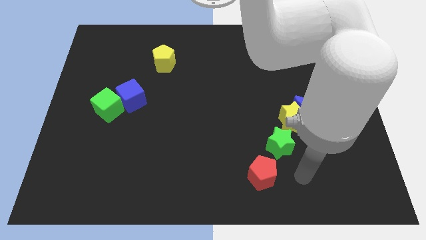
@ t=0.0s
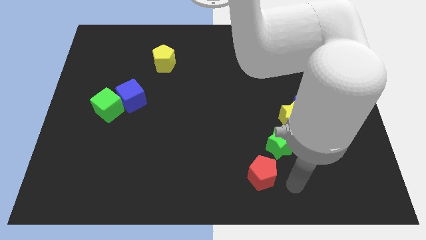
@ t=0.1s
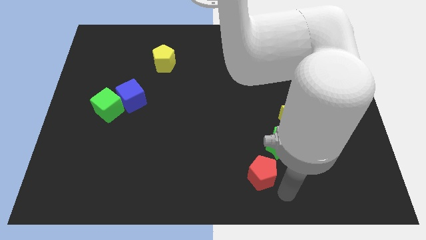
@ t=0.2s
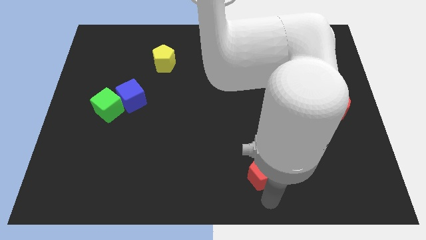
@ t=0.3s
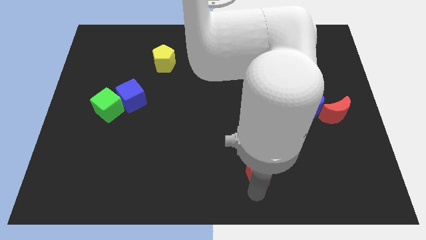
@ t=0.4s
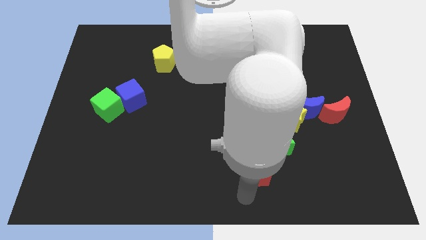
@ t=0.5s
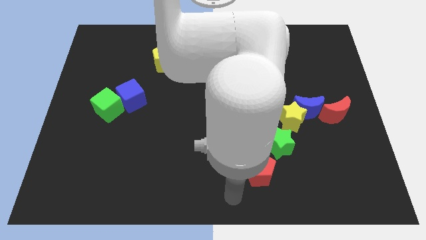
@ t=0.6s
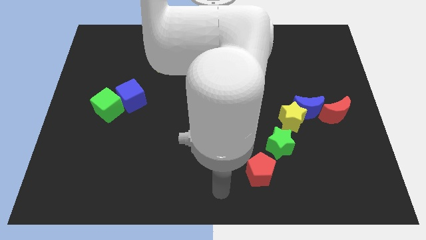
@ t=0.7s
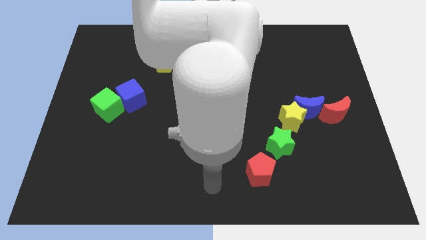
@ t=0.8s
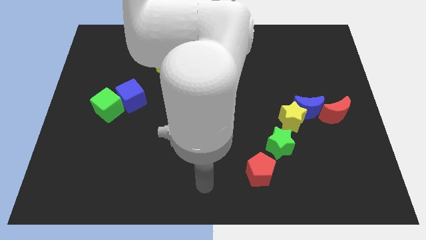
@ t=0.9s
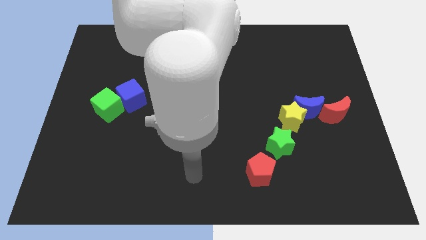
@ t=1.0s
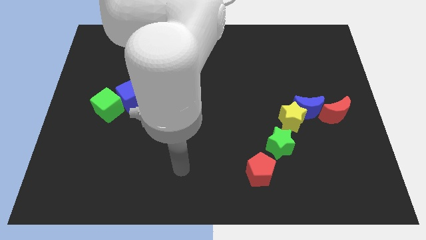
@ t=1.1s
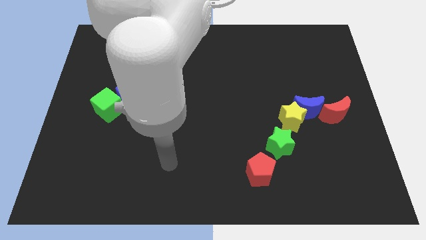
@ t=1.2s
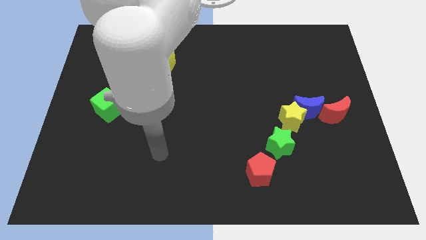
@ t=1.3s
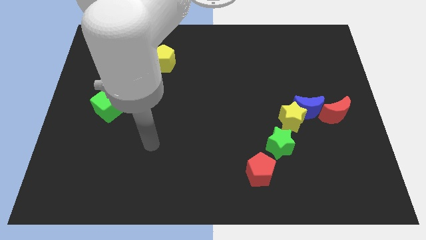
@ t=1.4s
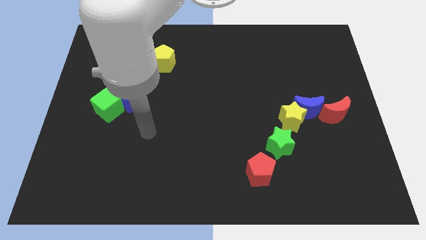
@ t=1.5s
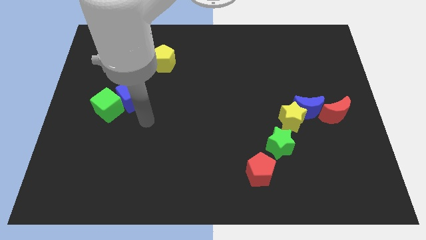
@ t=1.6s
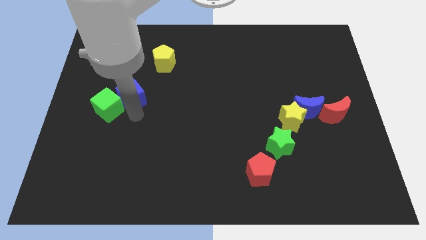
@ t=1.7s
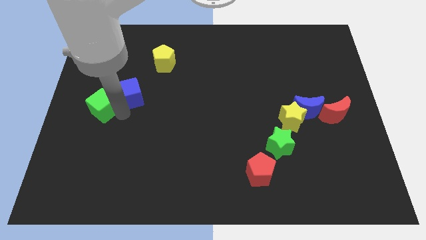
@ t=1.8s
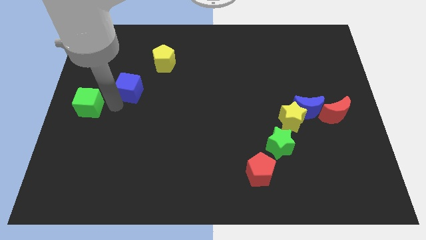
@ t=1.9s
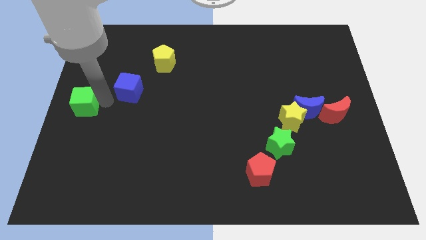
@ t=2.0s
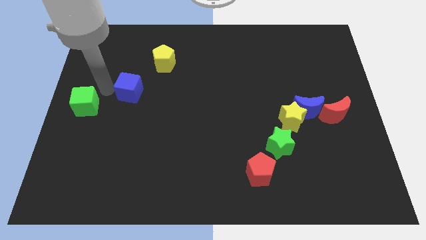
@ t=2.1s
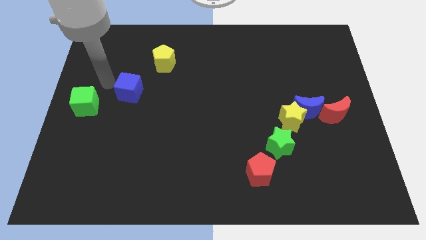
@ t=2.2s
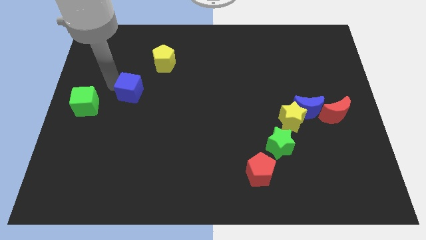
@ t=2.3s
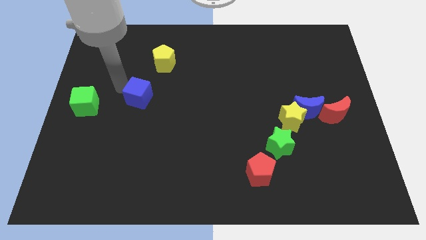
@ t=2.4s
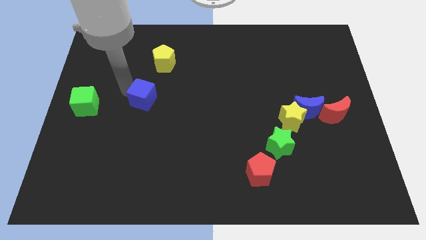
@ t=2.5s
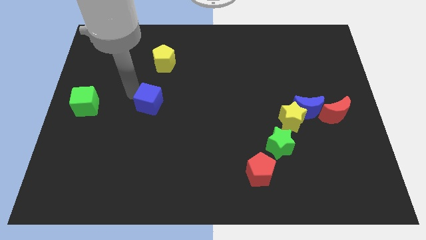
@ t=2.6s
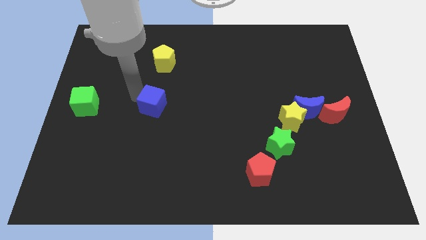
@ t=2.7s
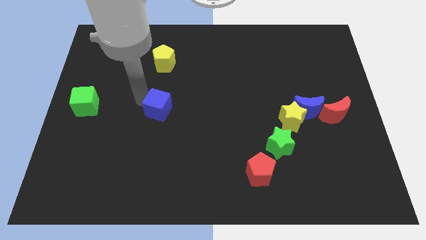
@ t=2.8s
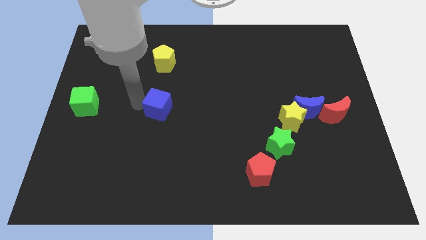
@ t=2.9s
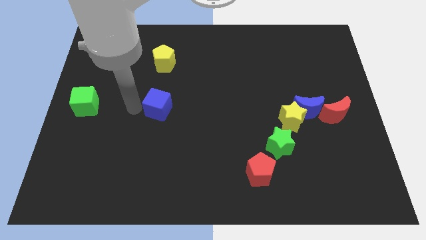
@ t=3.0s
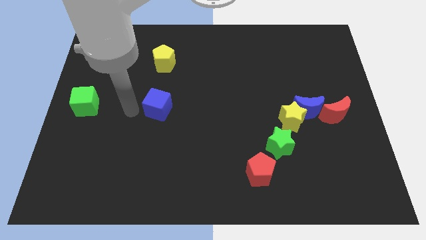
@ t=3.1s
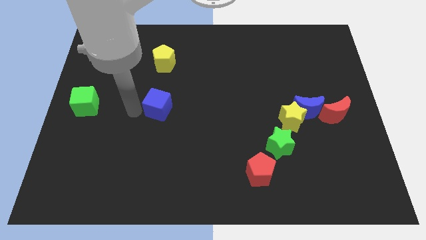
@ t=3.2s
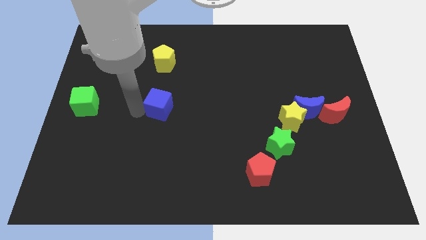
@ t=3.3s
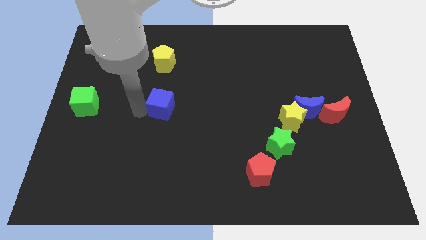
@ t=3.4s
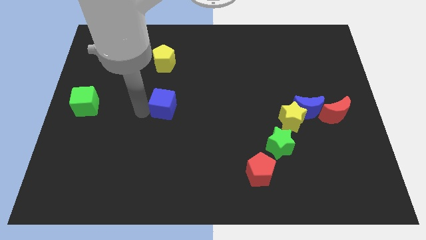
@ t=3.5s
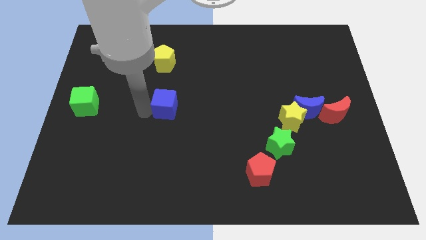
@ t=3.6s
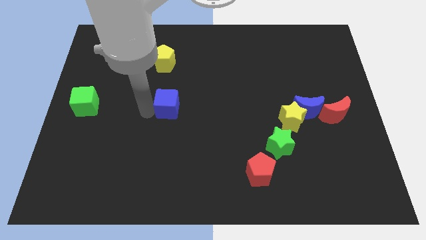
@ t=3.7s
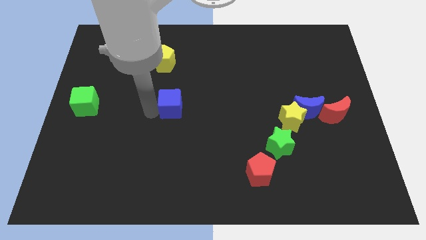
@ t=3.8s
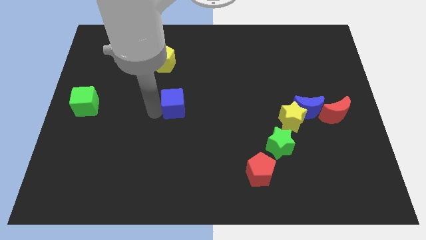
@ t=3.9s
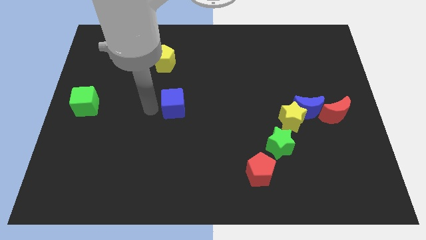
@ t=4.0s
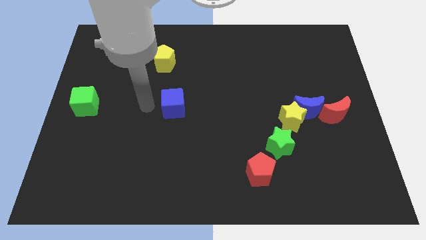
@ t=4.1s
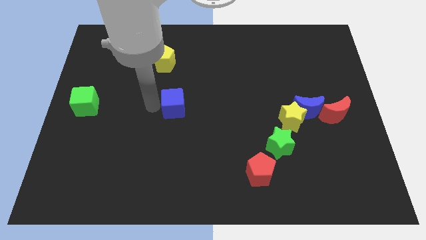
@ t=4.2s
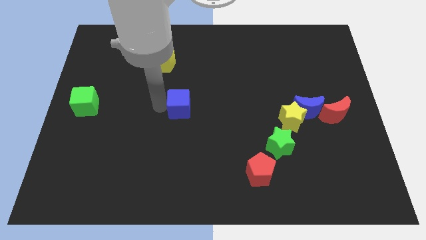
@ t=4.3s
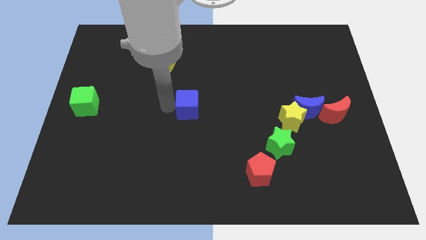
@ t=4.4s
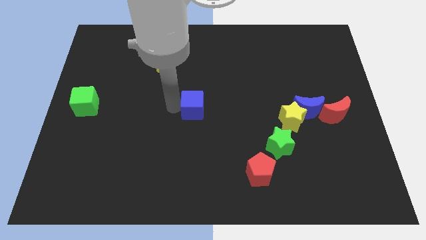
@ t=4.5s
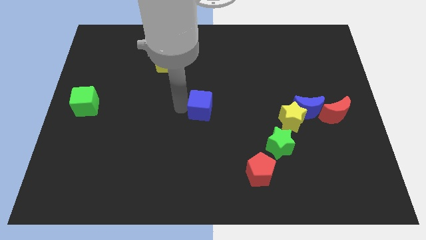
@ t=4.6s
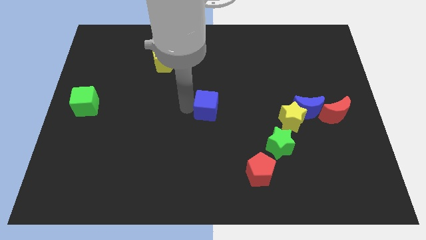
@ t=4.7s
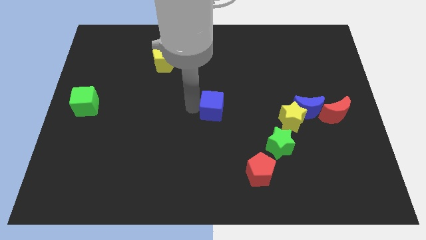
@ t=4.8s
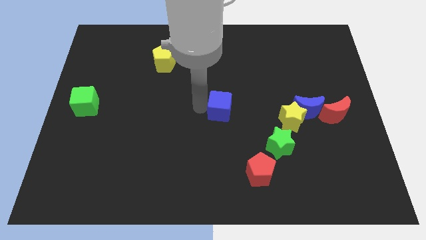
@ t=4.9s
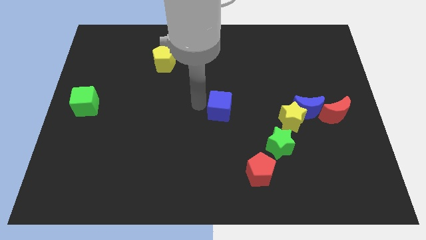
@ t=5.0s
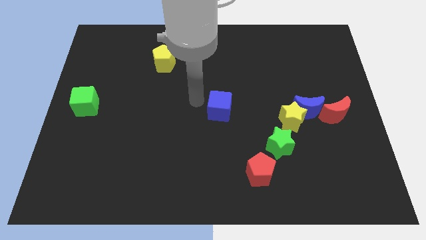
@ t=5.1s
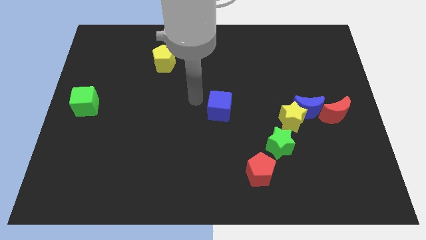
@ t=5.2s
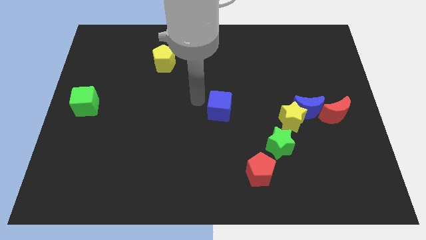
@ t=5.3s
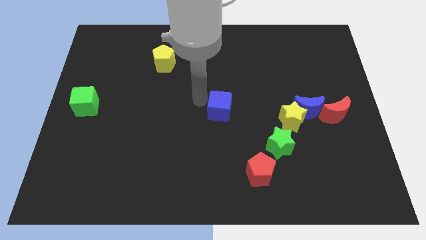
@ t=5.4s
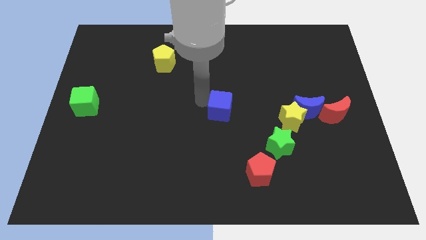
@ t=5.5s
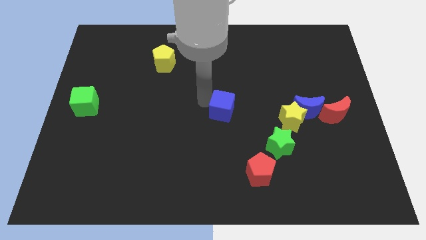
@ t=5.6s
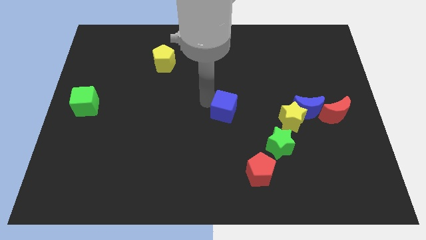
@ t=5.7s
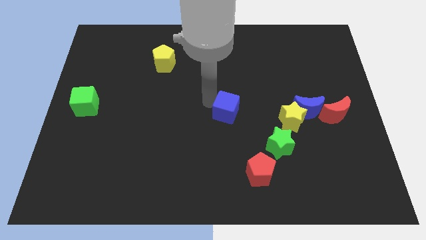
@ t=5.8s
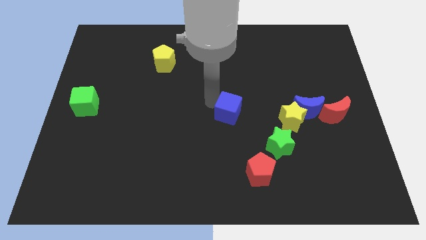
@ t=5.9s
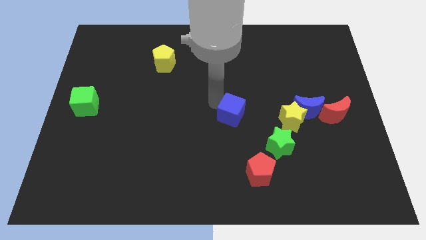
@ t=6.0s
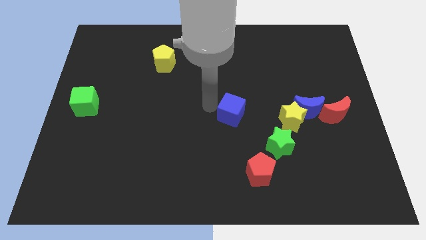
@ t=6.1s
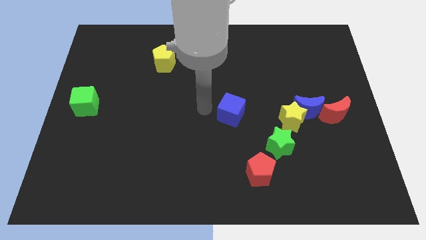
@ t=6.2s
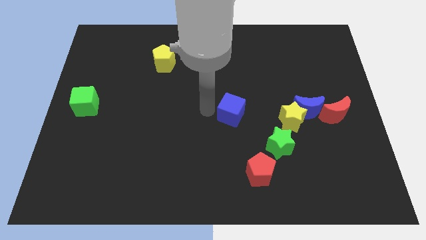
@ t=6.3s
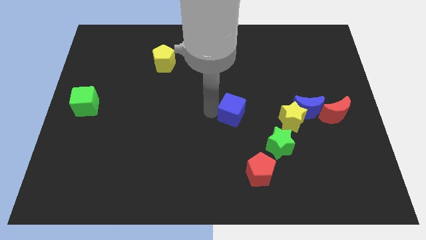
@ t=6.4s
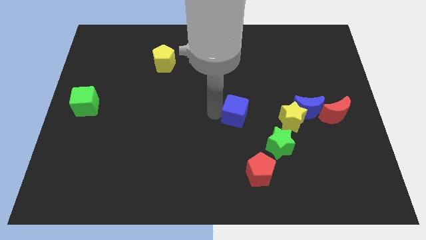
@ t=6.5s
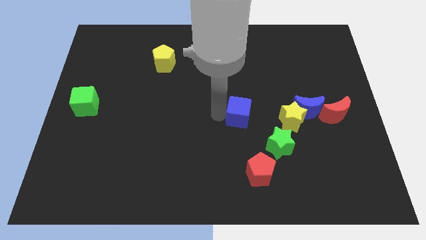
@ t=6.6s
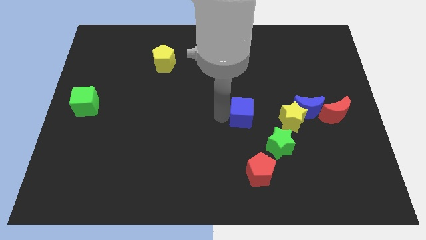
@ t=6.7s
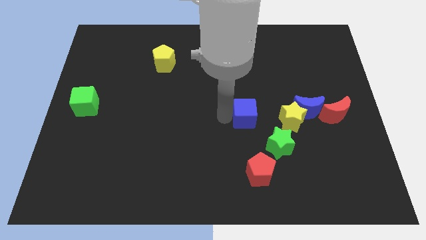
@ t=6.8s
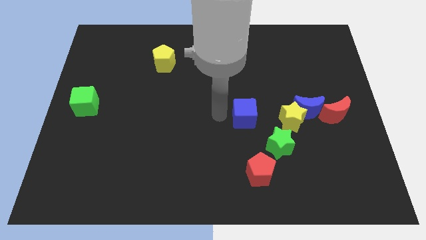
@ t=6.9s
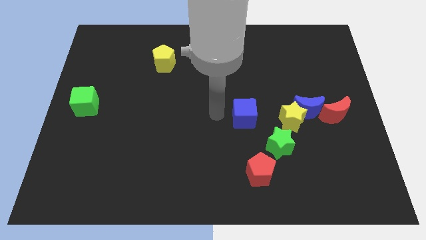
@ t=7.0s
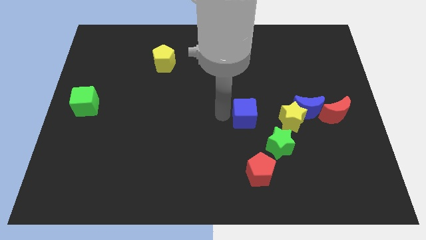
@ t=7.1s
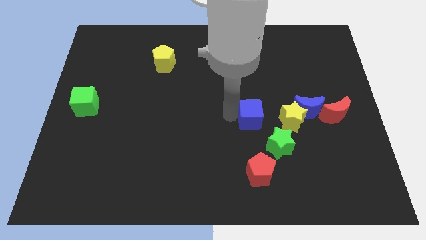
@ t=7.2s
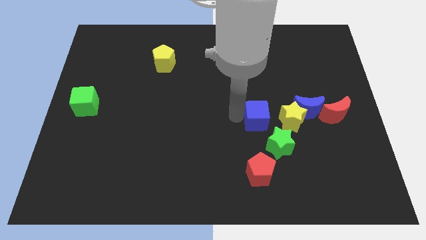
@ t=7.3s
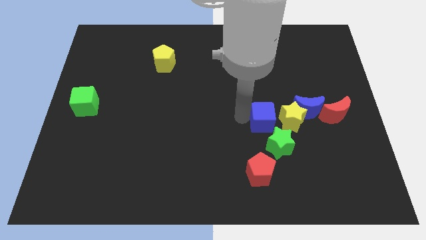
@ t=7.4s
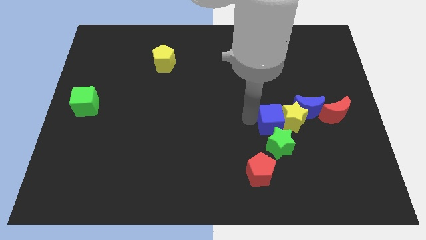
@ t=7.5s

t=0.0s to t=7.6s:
slide the blue cube to the yellow star
